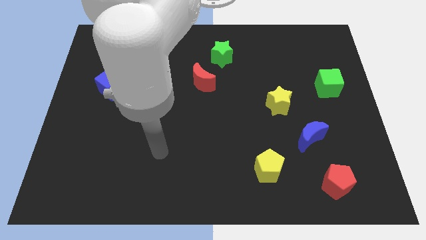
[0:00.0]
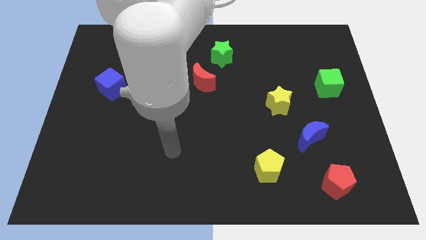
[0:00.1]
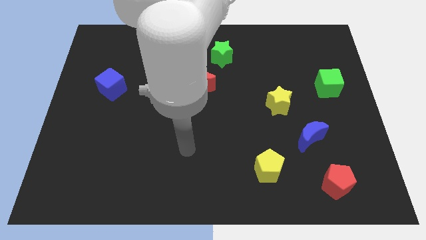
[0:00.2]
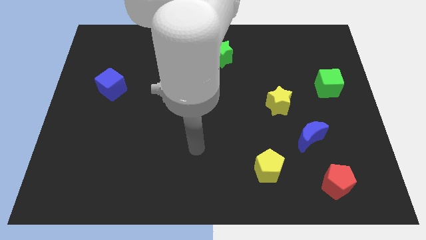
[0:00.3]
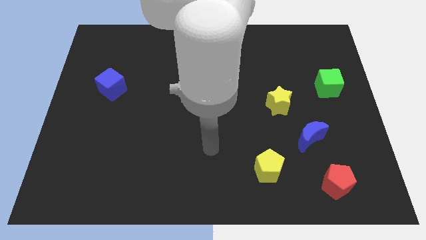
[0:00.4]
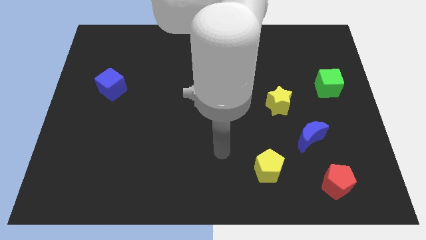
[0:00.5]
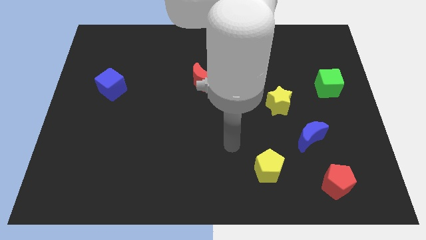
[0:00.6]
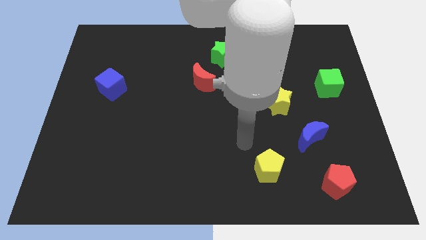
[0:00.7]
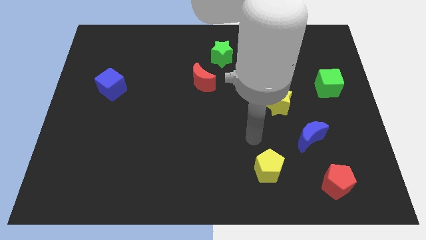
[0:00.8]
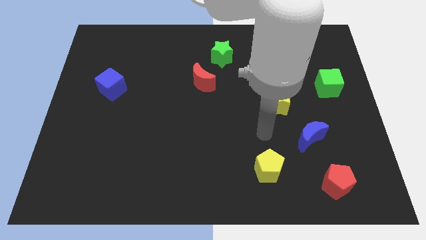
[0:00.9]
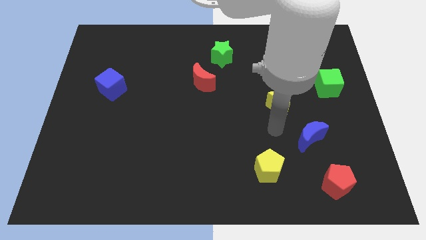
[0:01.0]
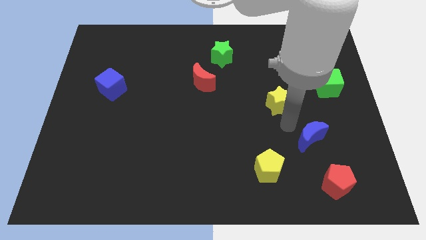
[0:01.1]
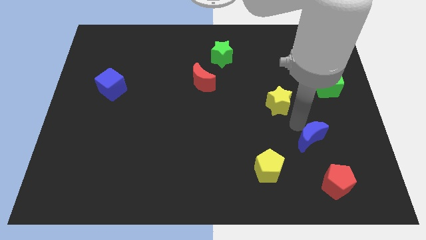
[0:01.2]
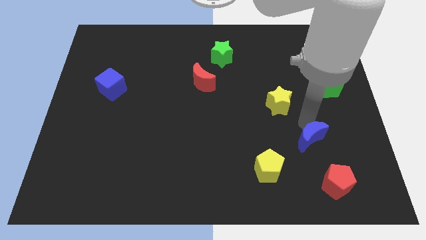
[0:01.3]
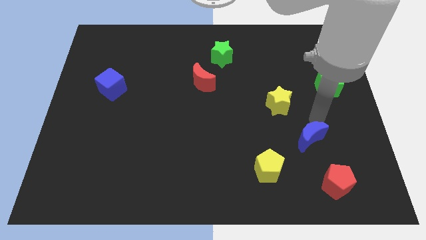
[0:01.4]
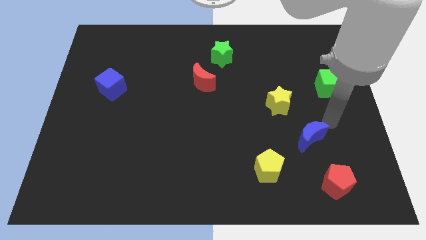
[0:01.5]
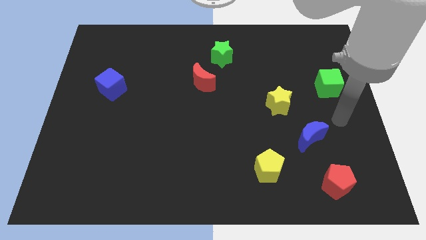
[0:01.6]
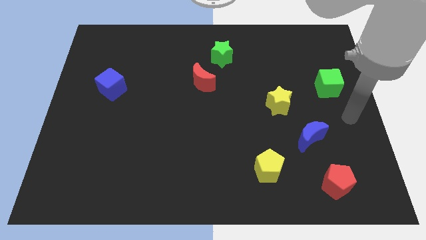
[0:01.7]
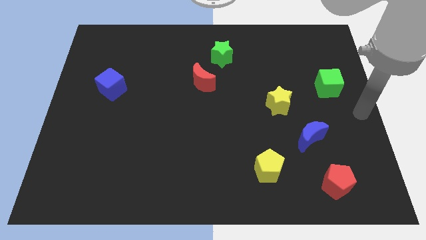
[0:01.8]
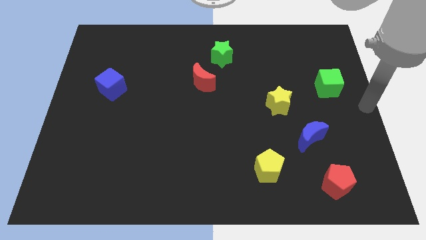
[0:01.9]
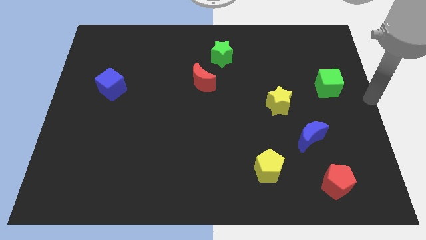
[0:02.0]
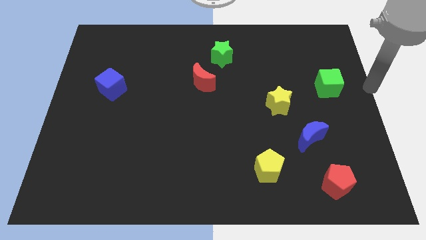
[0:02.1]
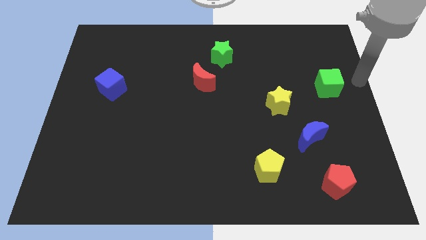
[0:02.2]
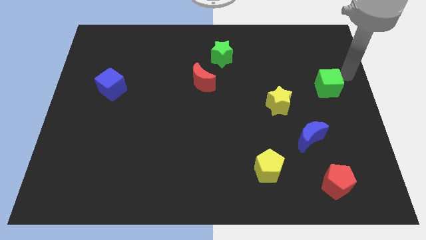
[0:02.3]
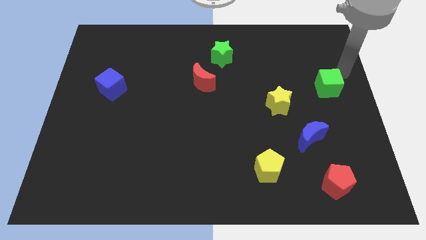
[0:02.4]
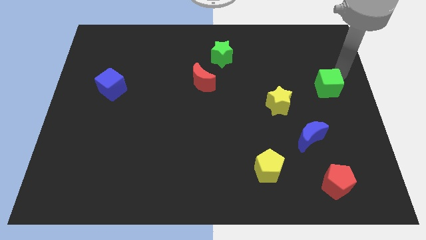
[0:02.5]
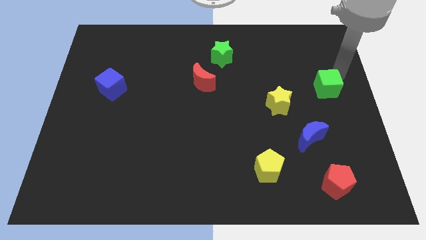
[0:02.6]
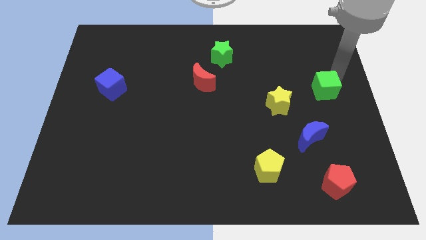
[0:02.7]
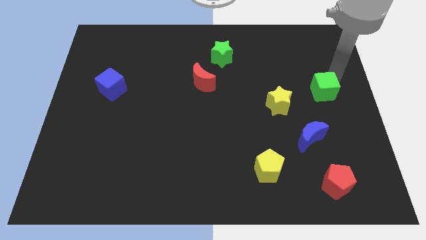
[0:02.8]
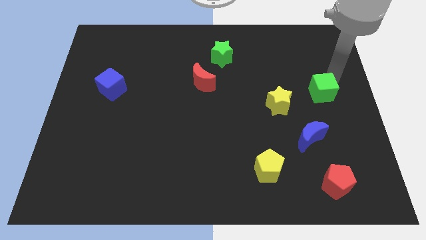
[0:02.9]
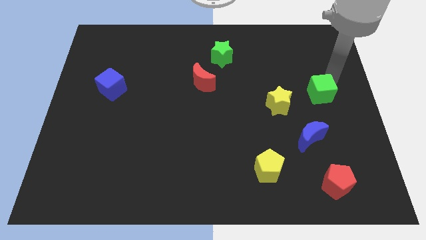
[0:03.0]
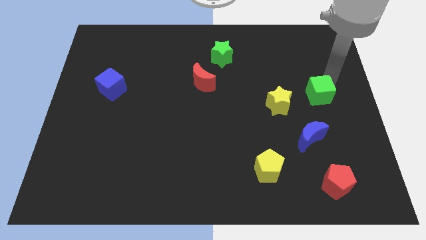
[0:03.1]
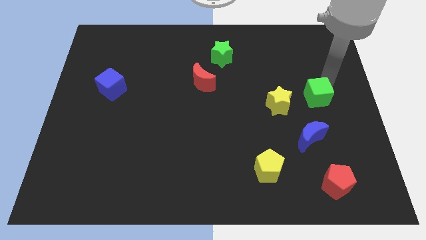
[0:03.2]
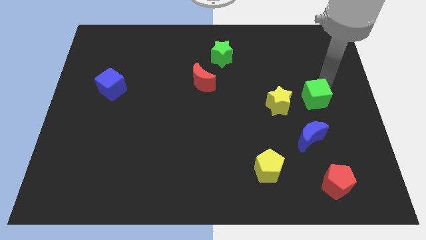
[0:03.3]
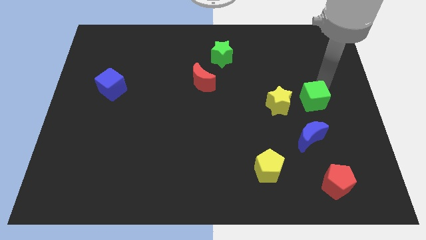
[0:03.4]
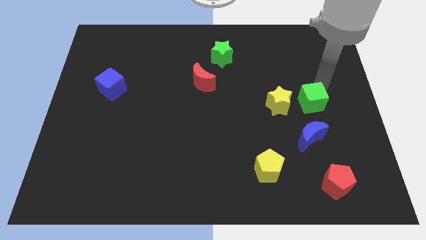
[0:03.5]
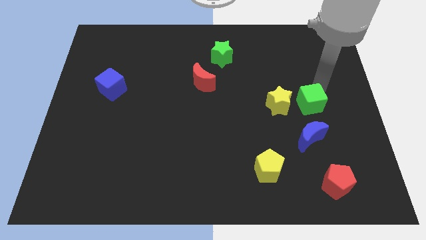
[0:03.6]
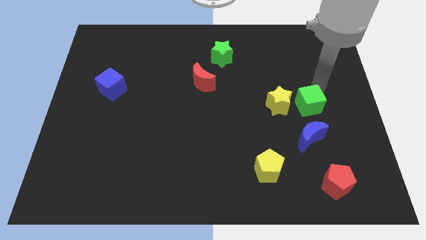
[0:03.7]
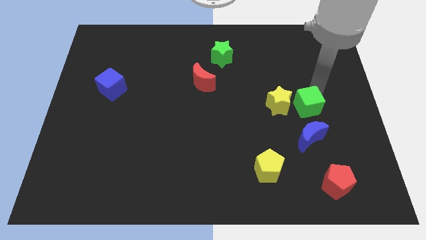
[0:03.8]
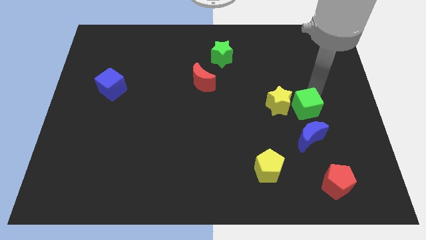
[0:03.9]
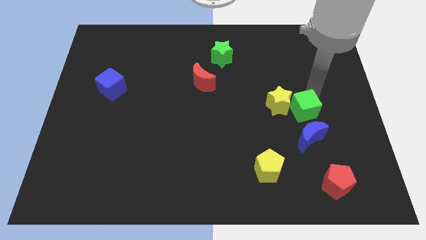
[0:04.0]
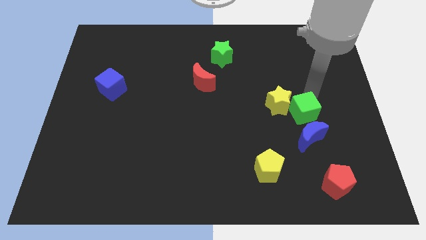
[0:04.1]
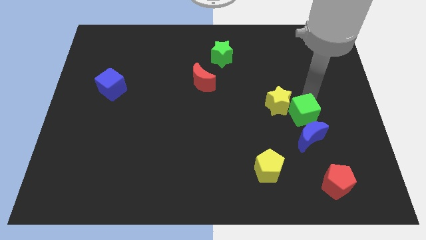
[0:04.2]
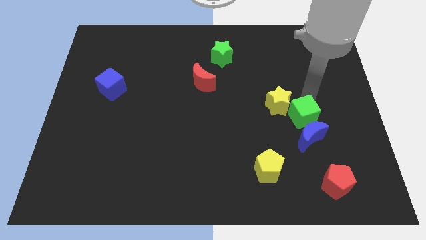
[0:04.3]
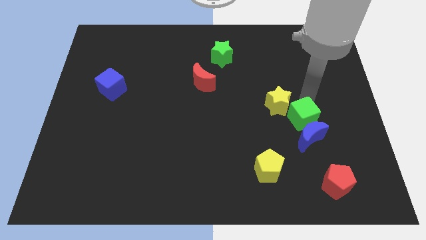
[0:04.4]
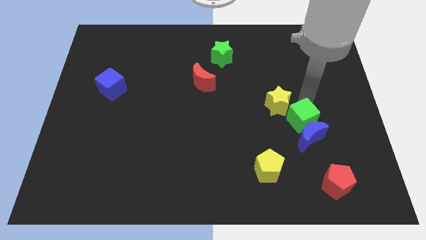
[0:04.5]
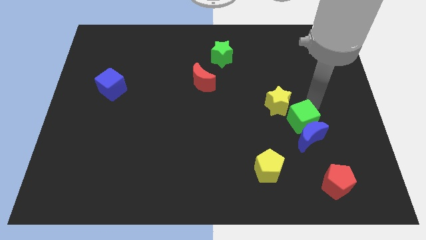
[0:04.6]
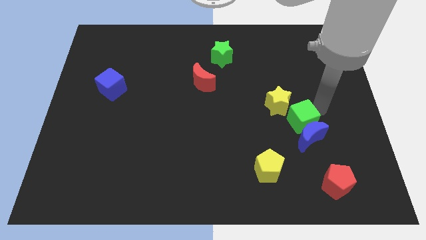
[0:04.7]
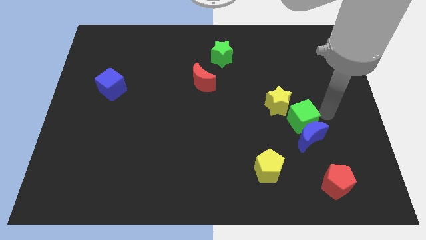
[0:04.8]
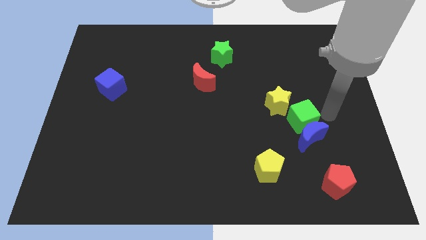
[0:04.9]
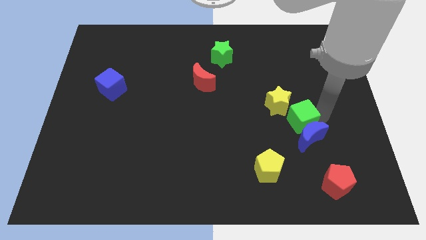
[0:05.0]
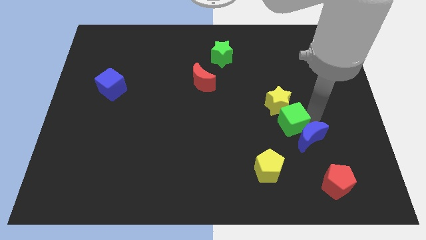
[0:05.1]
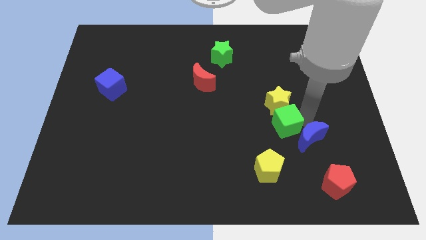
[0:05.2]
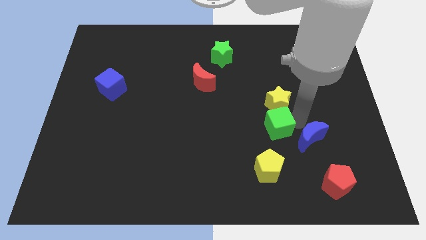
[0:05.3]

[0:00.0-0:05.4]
move the green cube above the yellow pentagon
